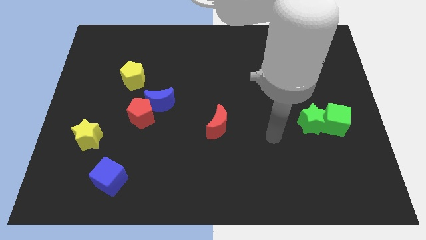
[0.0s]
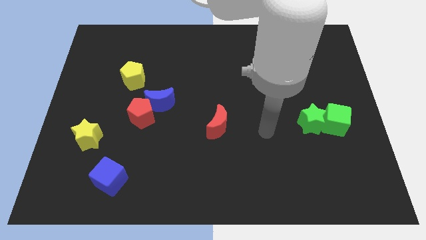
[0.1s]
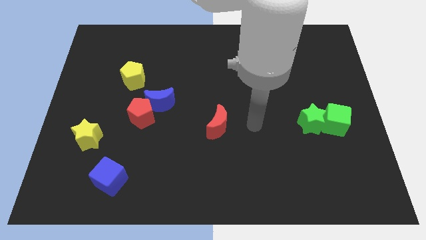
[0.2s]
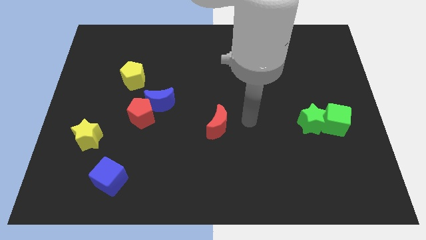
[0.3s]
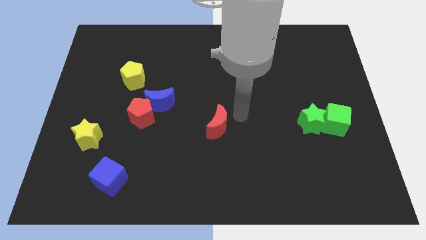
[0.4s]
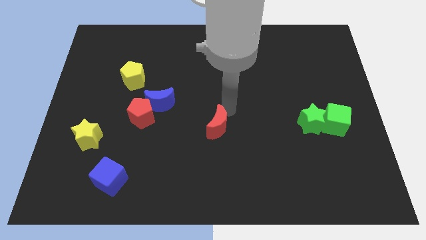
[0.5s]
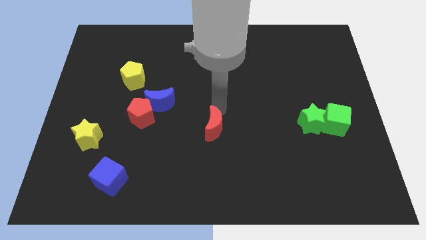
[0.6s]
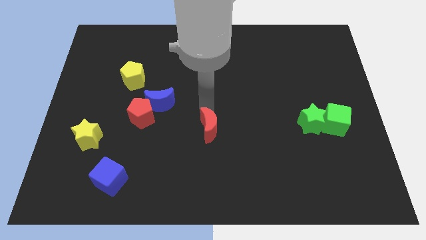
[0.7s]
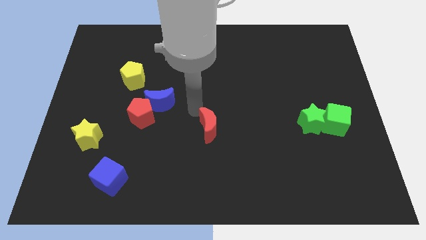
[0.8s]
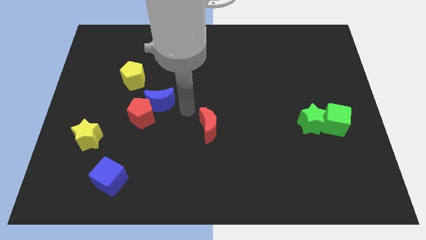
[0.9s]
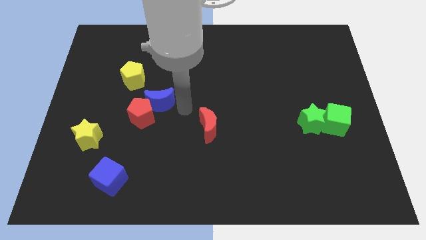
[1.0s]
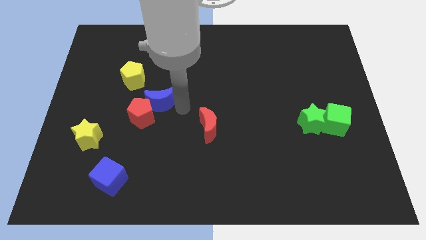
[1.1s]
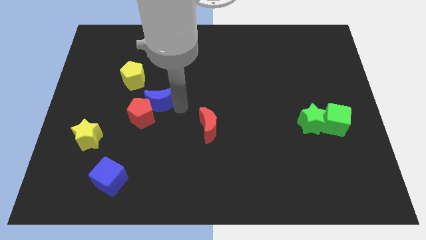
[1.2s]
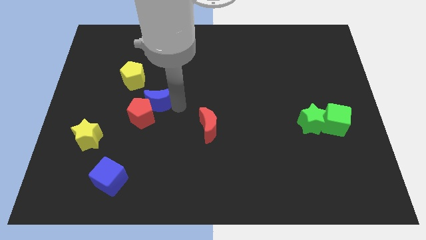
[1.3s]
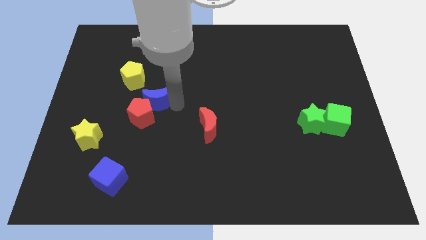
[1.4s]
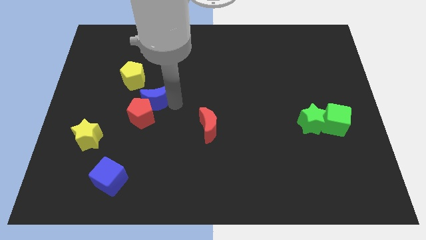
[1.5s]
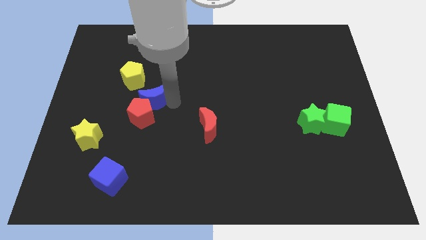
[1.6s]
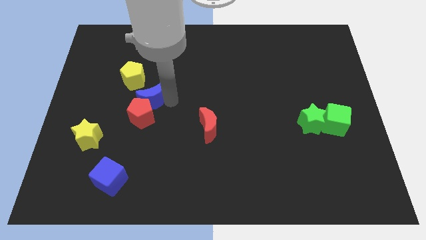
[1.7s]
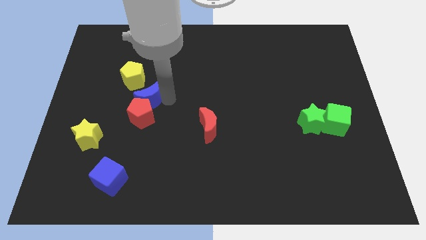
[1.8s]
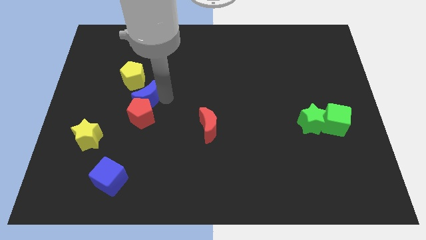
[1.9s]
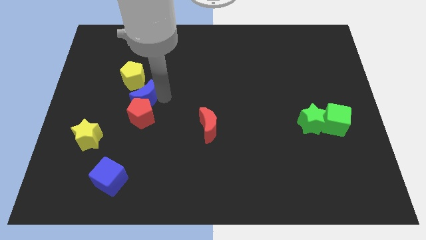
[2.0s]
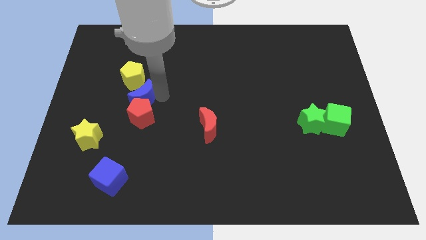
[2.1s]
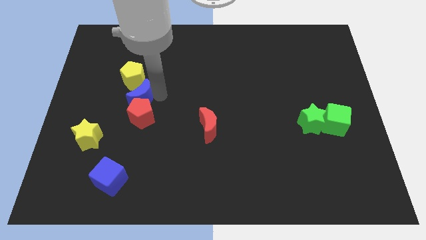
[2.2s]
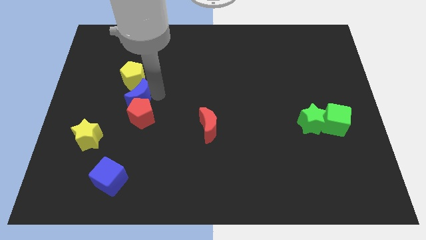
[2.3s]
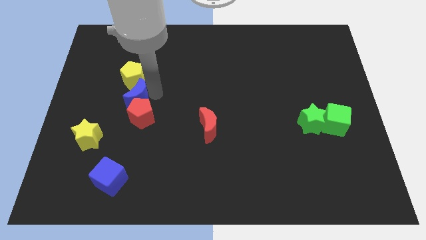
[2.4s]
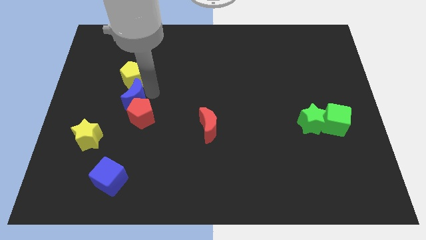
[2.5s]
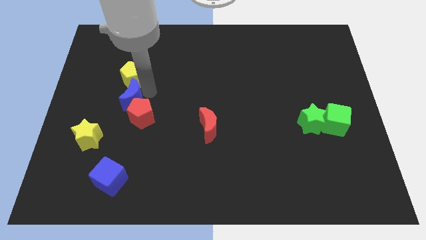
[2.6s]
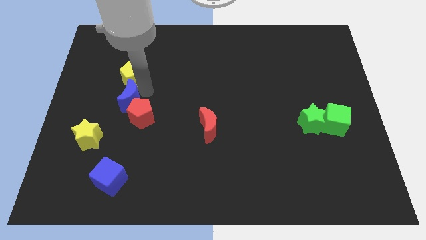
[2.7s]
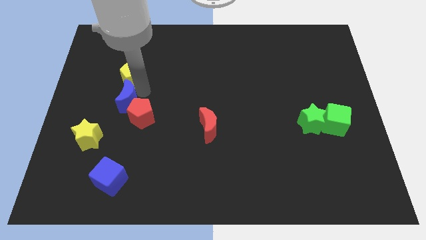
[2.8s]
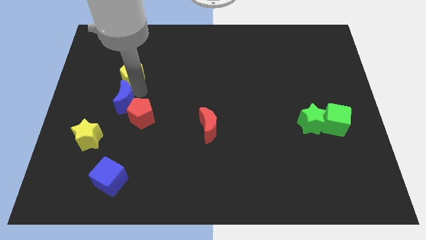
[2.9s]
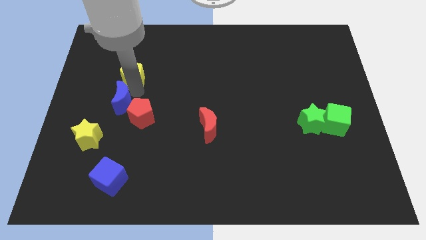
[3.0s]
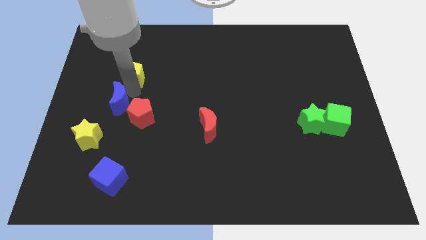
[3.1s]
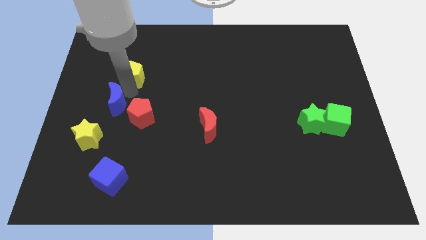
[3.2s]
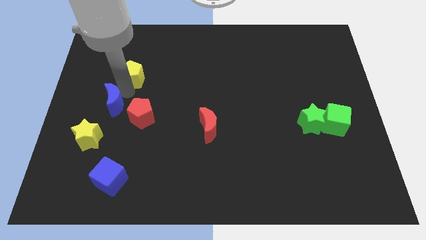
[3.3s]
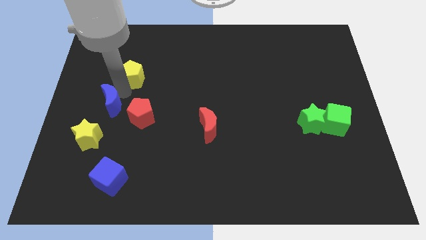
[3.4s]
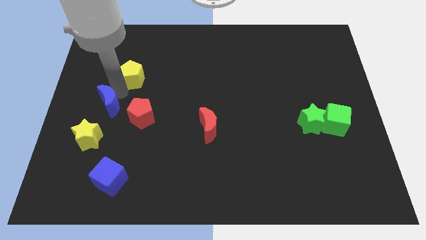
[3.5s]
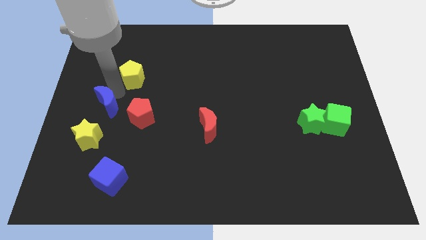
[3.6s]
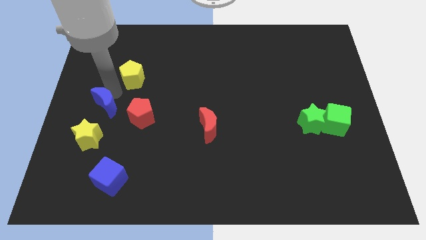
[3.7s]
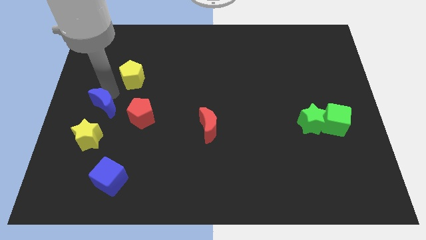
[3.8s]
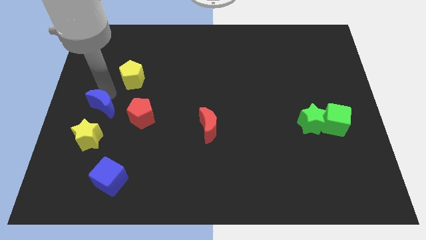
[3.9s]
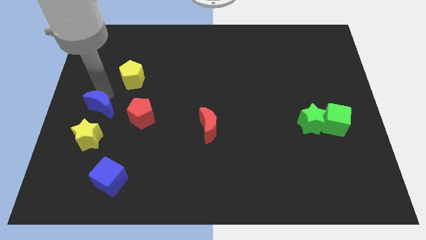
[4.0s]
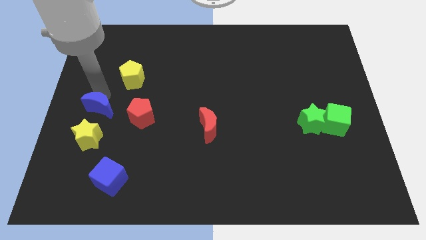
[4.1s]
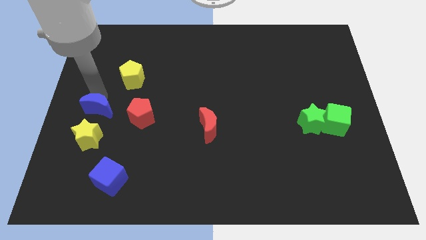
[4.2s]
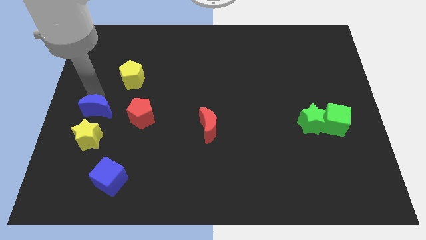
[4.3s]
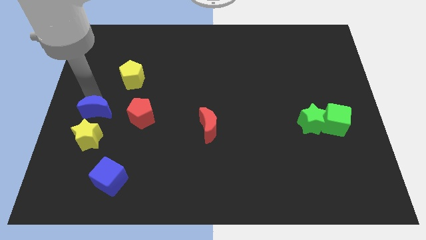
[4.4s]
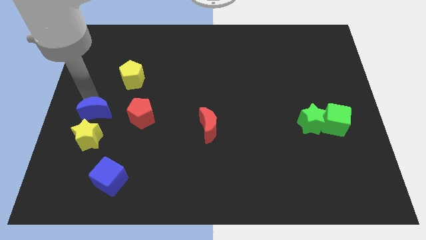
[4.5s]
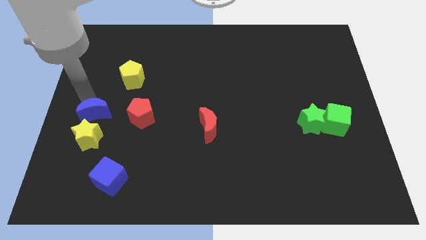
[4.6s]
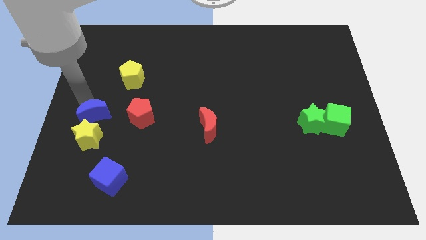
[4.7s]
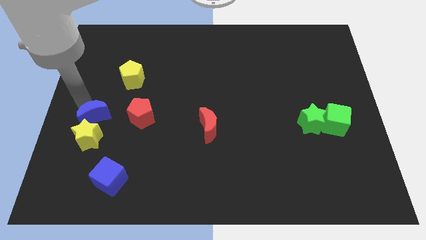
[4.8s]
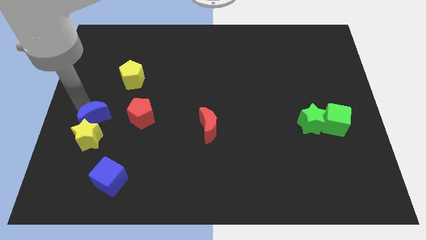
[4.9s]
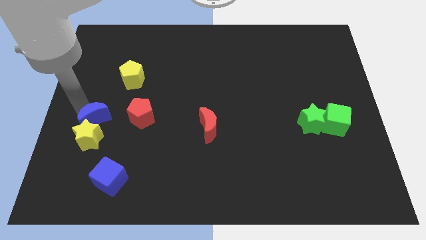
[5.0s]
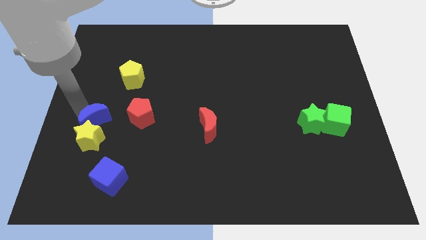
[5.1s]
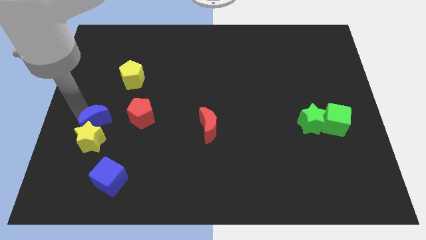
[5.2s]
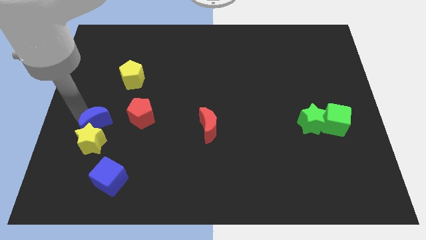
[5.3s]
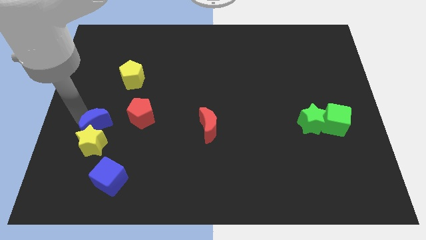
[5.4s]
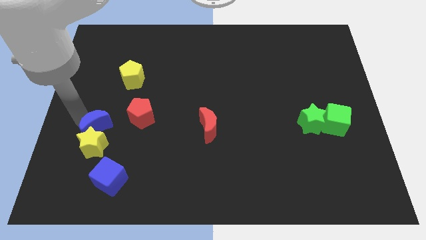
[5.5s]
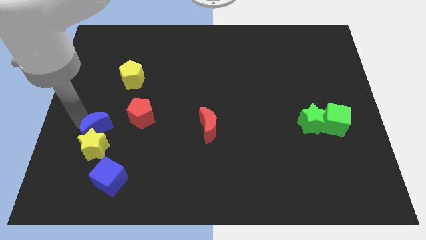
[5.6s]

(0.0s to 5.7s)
slide the blue moon to the bottom left of the red pentagon

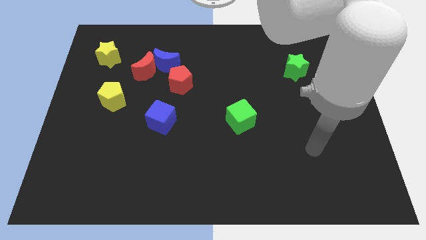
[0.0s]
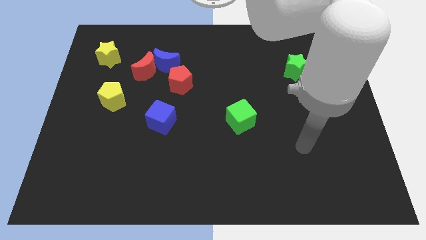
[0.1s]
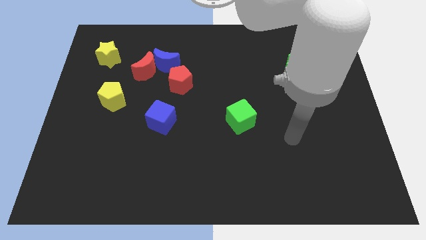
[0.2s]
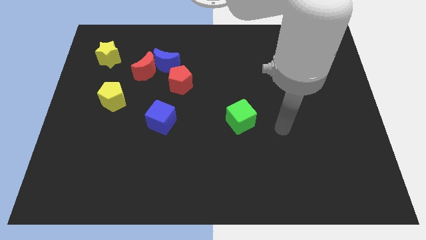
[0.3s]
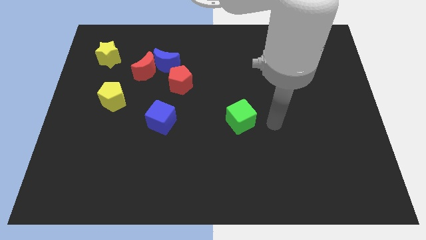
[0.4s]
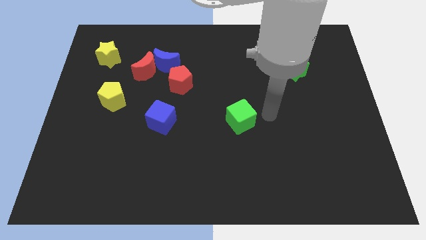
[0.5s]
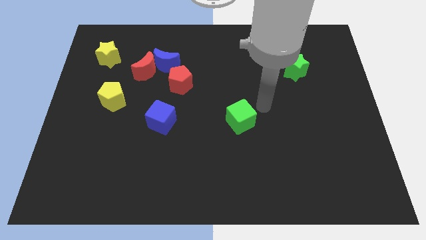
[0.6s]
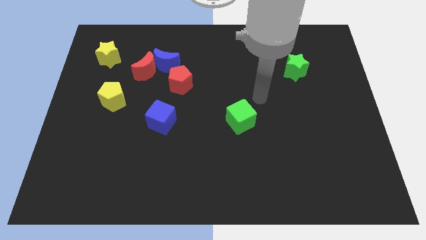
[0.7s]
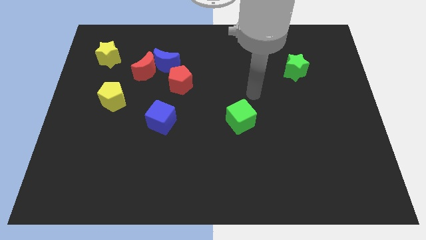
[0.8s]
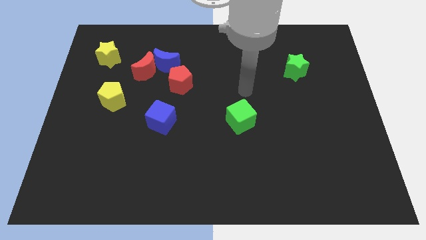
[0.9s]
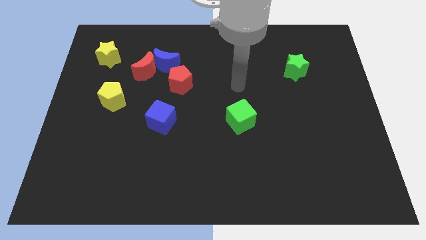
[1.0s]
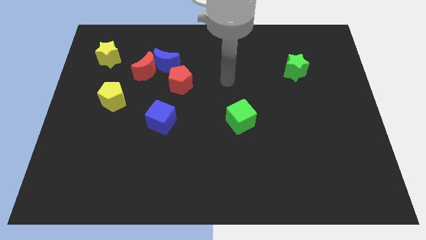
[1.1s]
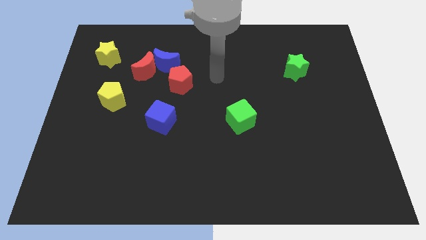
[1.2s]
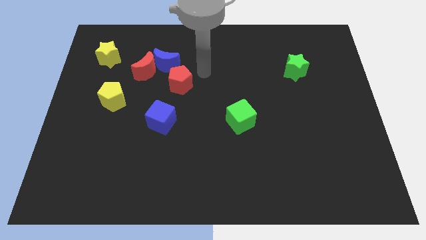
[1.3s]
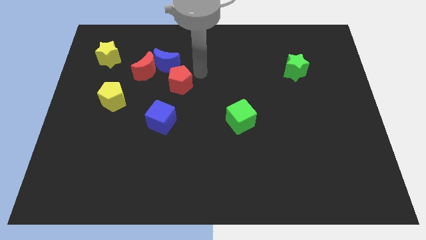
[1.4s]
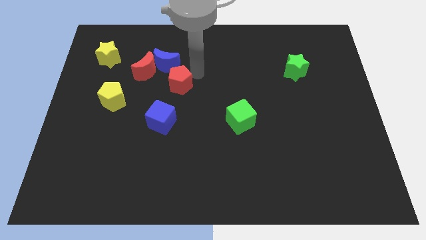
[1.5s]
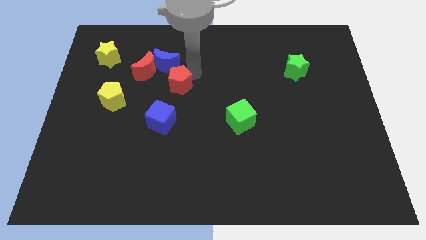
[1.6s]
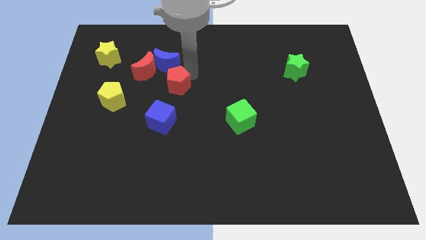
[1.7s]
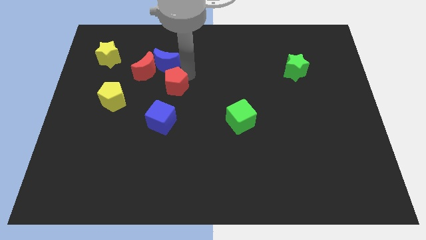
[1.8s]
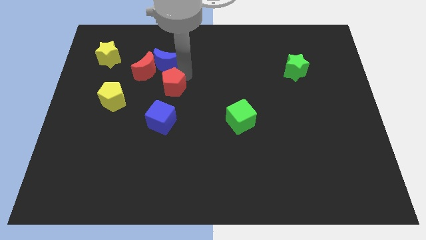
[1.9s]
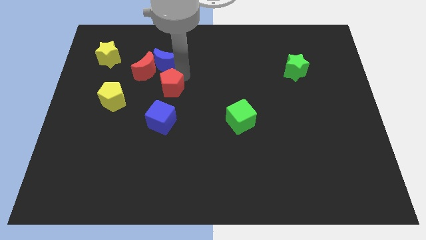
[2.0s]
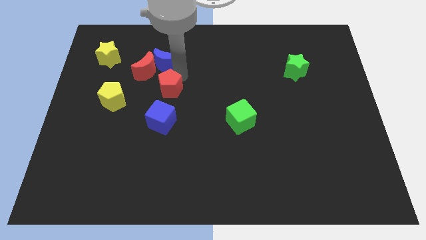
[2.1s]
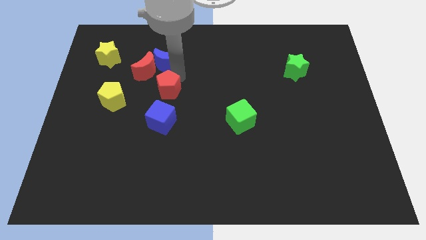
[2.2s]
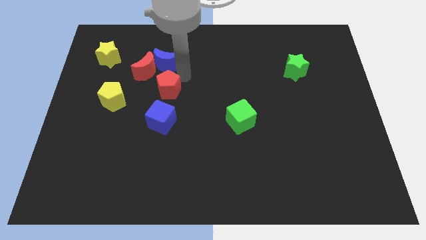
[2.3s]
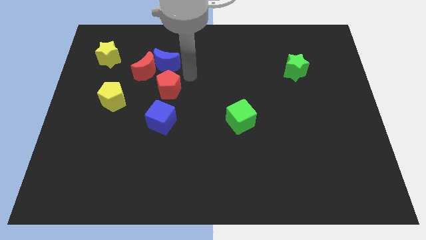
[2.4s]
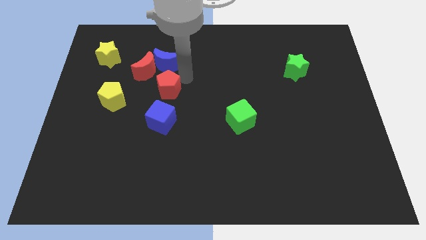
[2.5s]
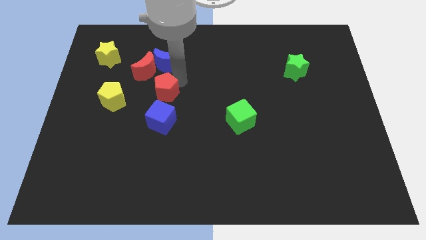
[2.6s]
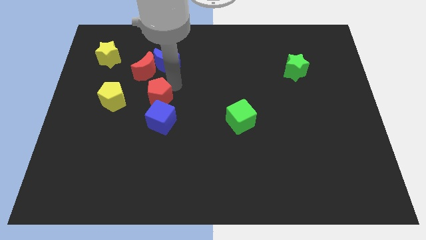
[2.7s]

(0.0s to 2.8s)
move the red pentagon to the top left side of the blue cube
